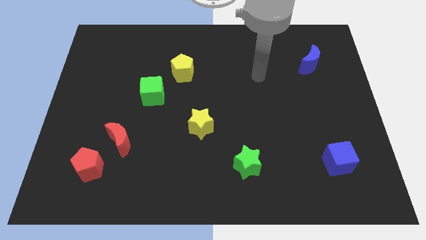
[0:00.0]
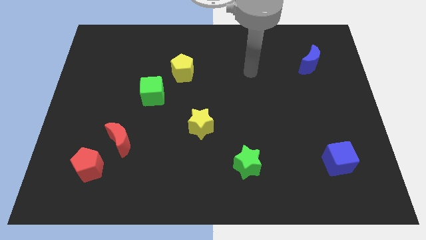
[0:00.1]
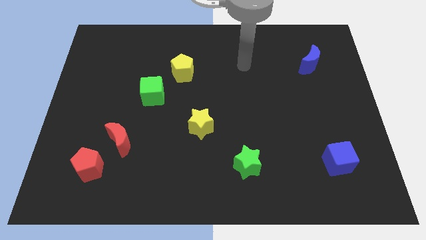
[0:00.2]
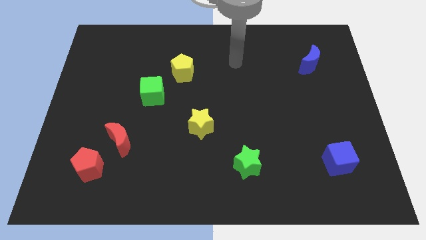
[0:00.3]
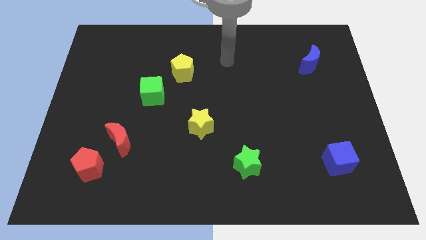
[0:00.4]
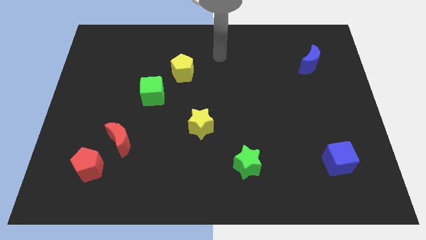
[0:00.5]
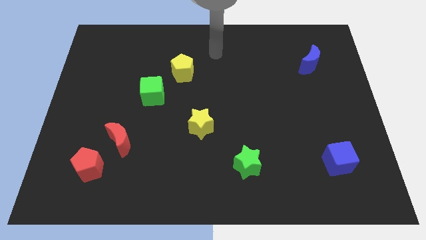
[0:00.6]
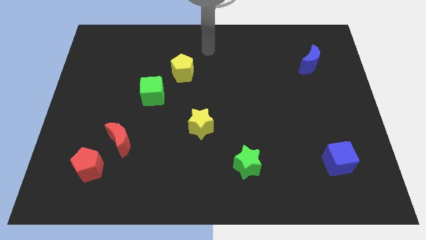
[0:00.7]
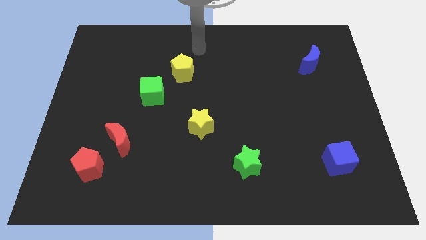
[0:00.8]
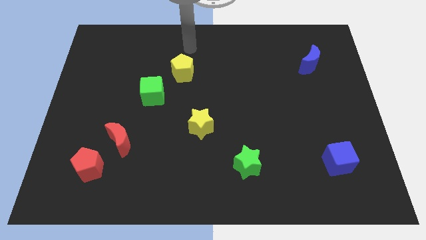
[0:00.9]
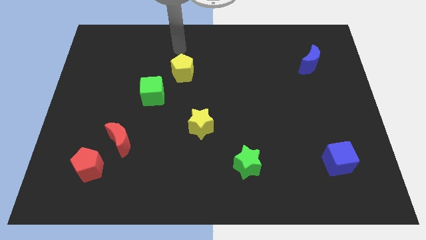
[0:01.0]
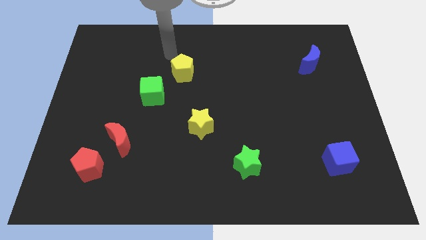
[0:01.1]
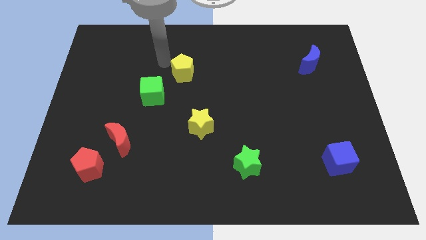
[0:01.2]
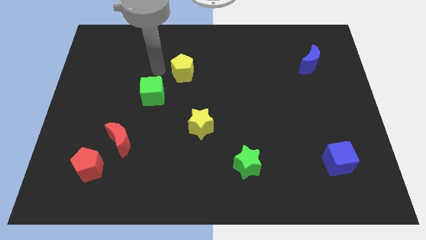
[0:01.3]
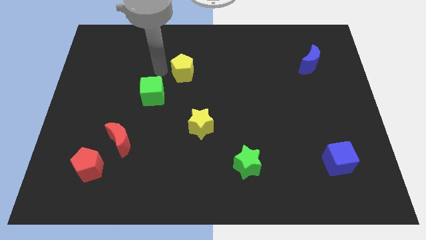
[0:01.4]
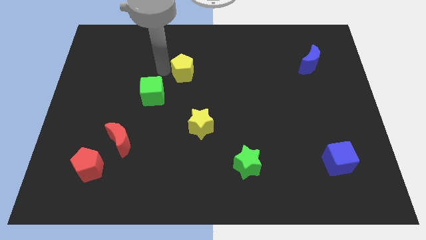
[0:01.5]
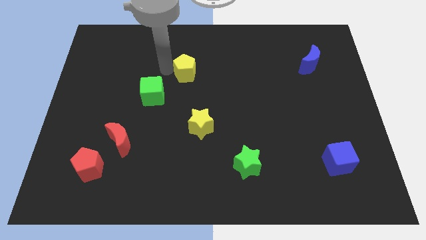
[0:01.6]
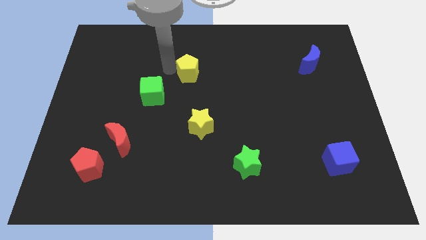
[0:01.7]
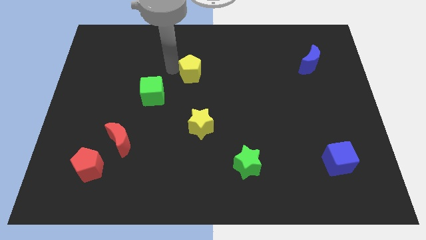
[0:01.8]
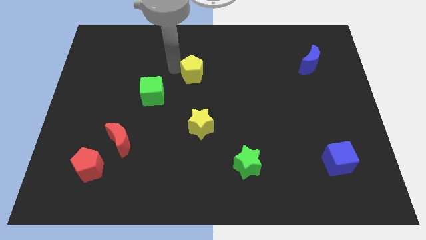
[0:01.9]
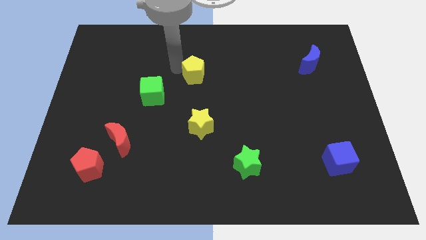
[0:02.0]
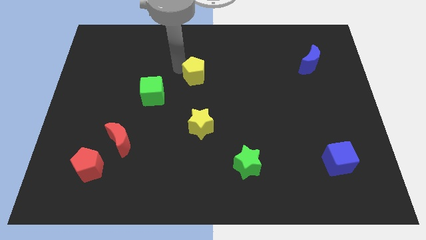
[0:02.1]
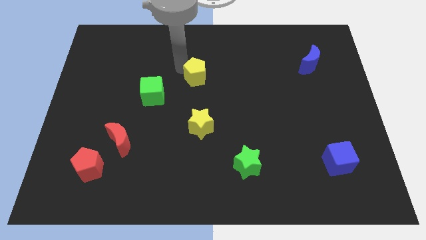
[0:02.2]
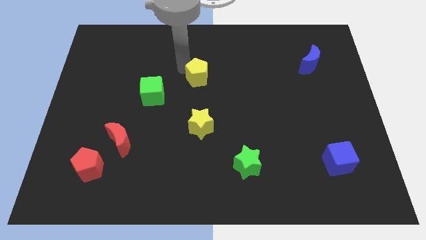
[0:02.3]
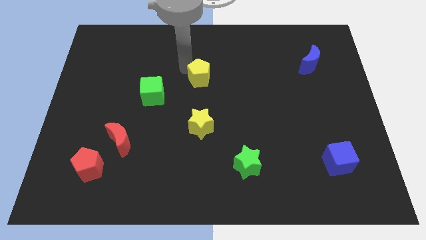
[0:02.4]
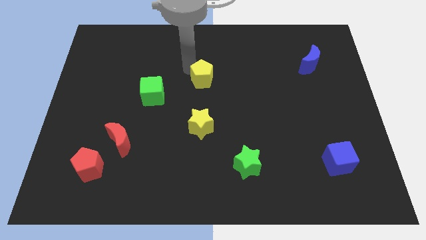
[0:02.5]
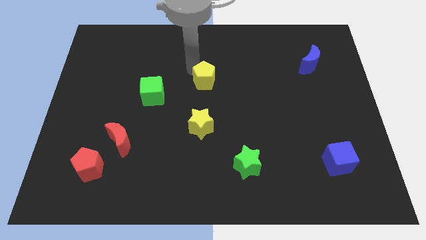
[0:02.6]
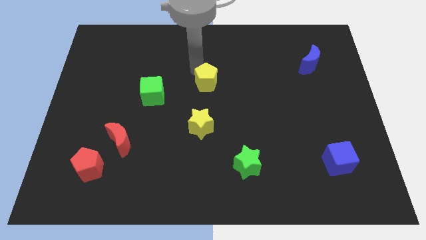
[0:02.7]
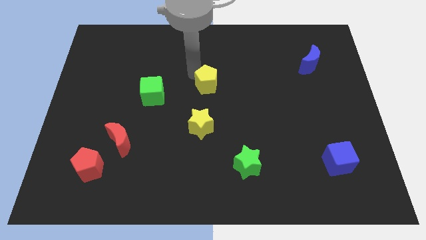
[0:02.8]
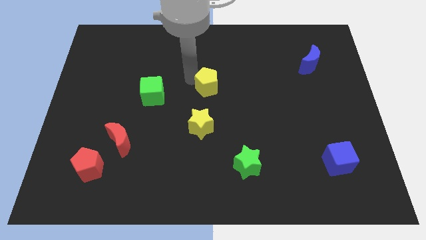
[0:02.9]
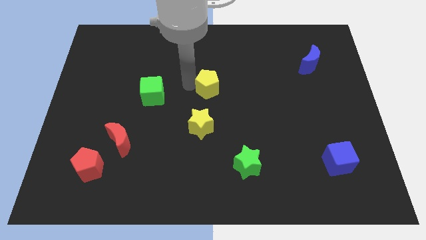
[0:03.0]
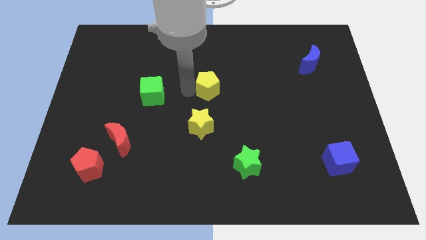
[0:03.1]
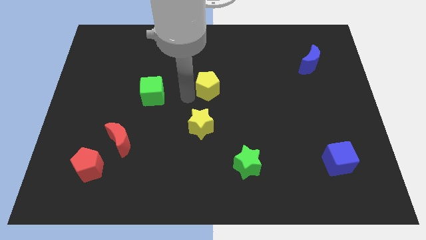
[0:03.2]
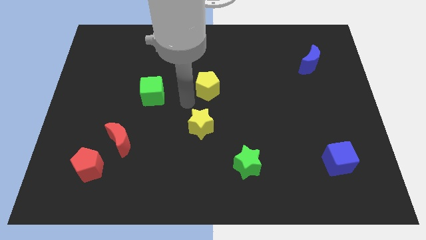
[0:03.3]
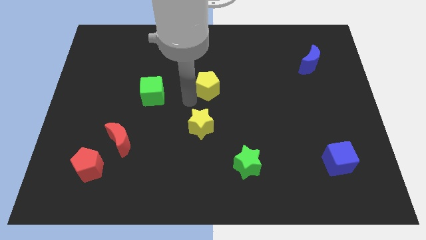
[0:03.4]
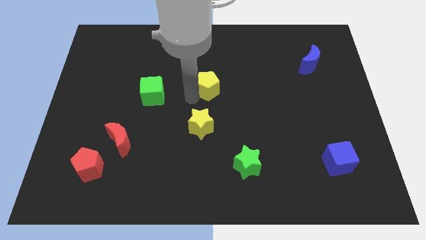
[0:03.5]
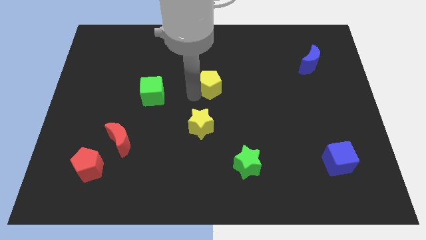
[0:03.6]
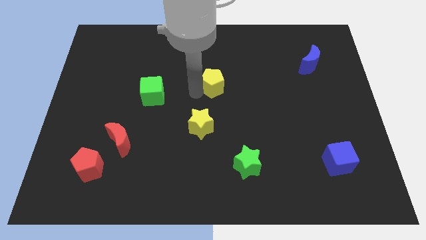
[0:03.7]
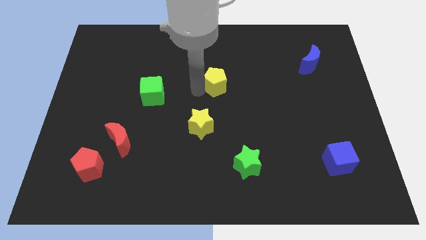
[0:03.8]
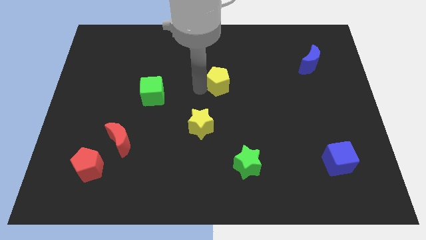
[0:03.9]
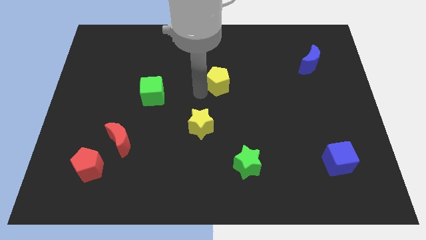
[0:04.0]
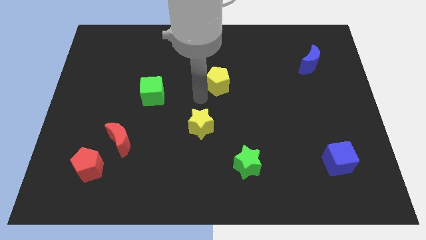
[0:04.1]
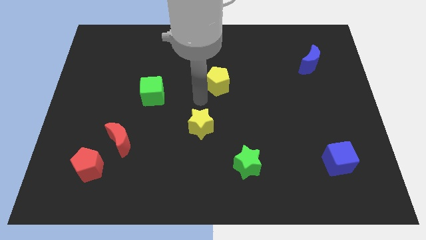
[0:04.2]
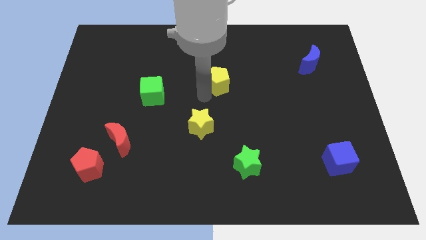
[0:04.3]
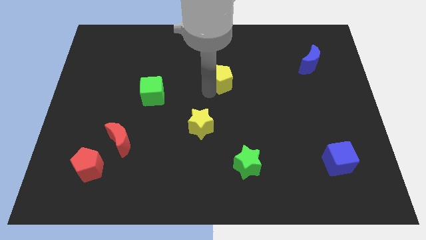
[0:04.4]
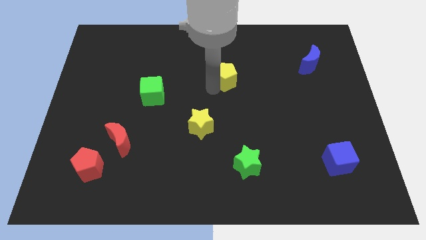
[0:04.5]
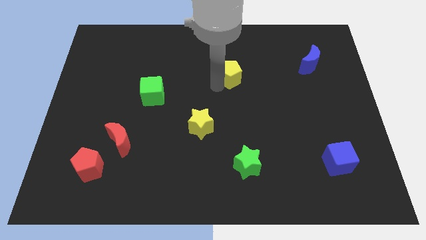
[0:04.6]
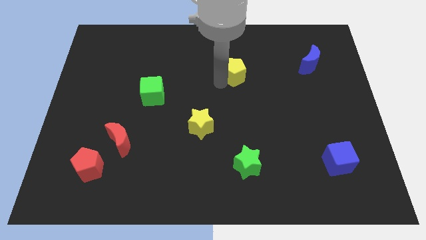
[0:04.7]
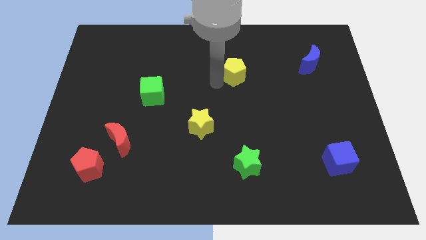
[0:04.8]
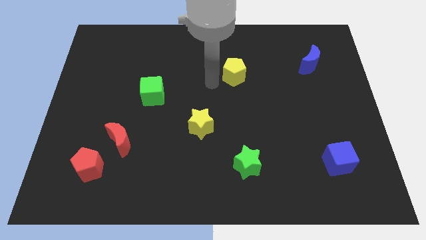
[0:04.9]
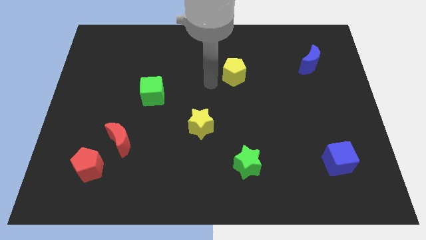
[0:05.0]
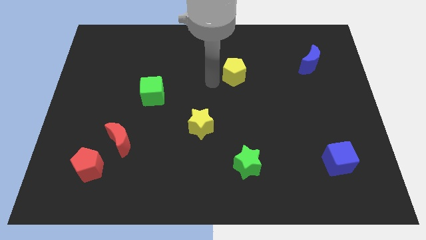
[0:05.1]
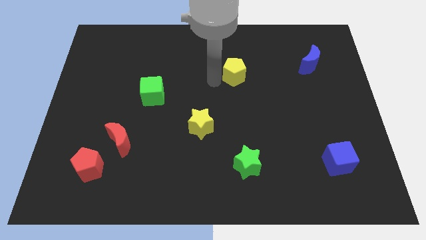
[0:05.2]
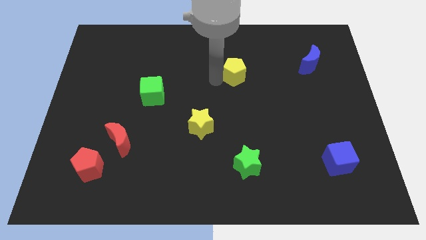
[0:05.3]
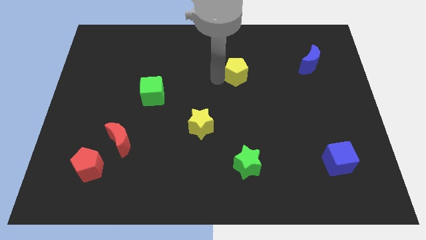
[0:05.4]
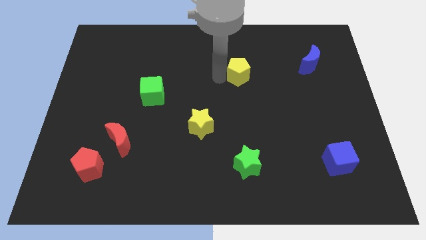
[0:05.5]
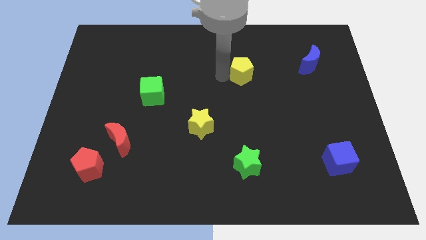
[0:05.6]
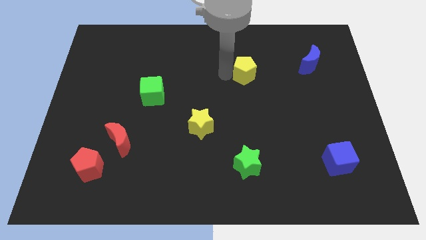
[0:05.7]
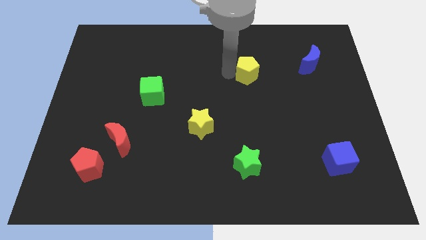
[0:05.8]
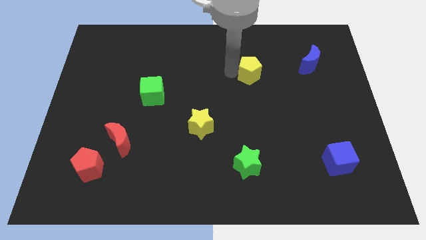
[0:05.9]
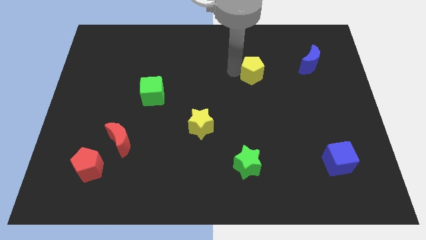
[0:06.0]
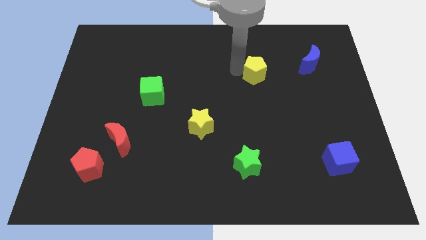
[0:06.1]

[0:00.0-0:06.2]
slide the yellow pentagon to the left of the blue moon

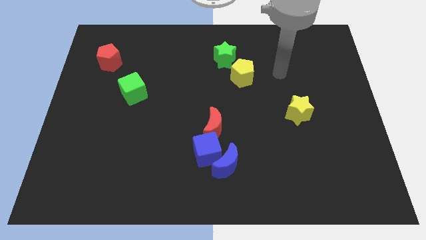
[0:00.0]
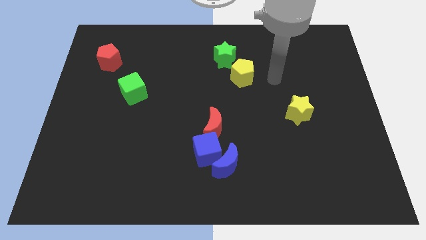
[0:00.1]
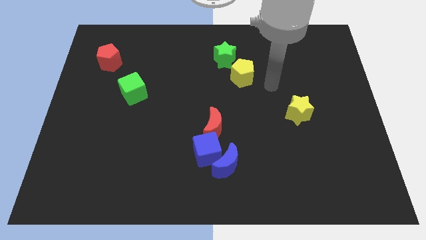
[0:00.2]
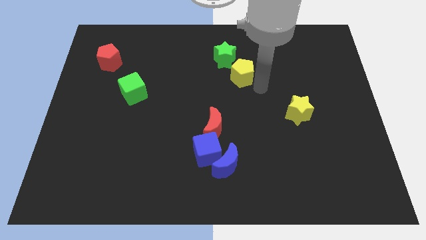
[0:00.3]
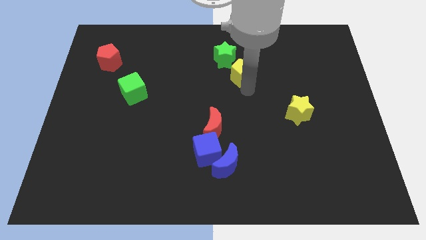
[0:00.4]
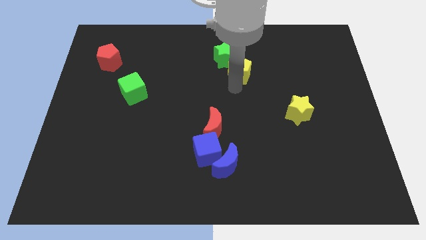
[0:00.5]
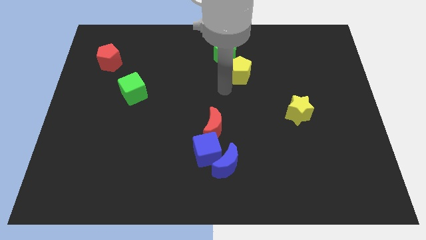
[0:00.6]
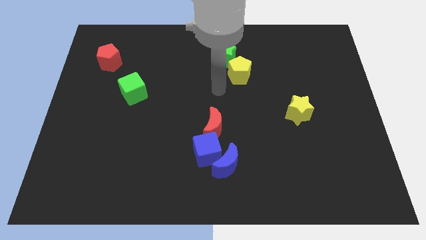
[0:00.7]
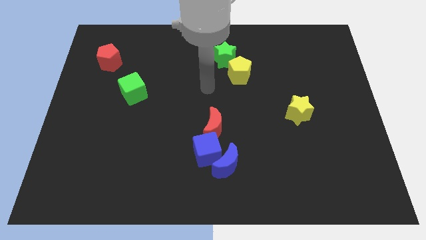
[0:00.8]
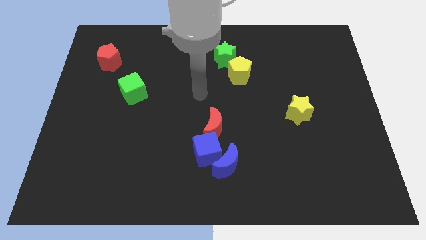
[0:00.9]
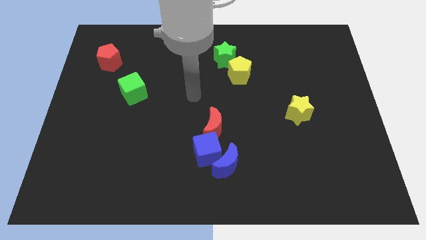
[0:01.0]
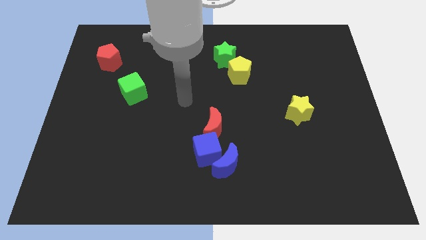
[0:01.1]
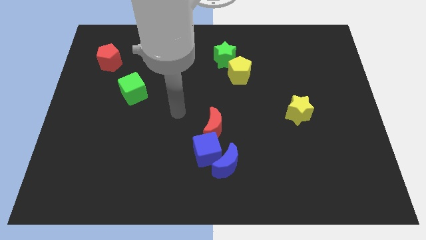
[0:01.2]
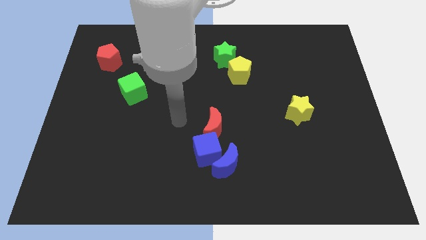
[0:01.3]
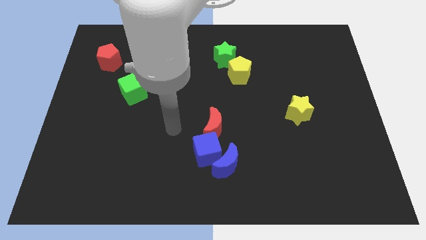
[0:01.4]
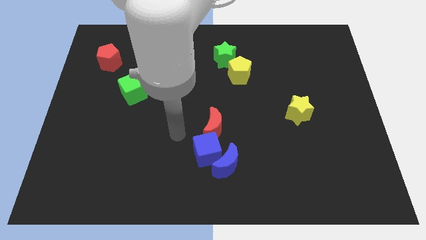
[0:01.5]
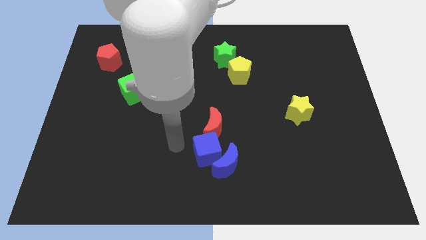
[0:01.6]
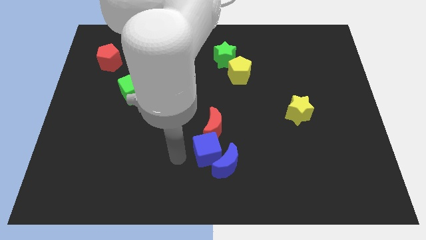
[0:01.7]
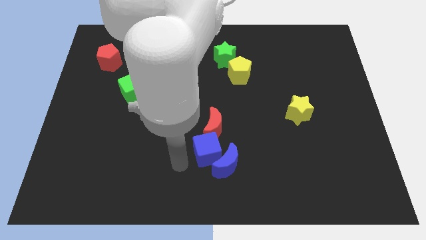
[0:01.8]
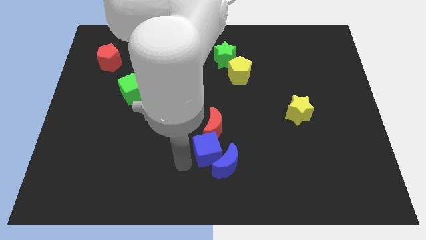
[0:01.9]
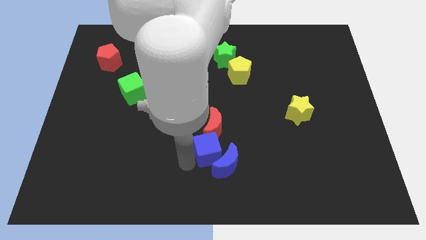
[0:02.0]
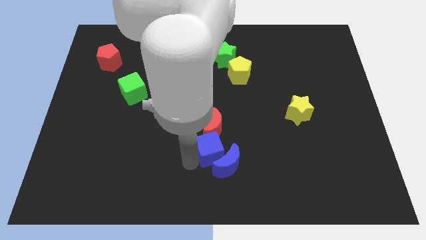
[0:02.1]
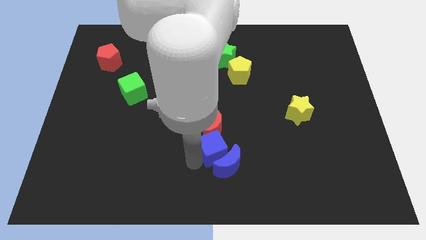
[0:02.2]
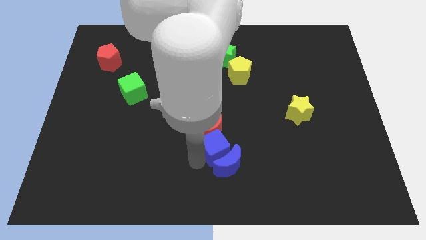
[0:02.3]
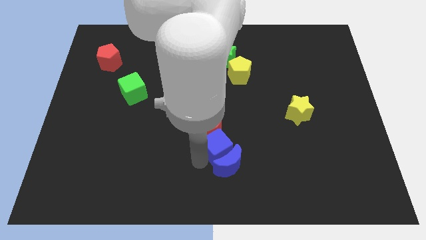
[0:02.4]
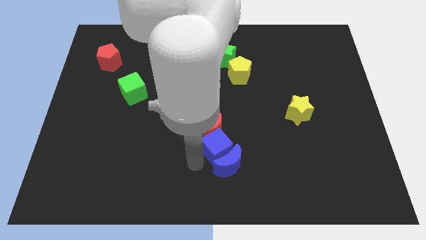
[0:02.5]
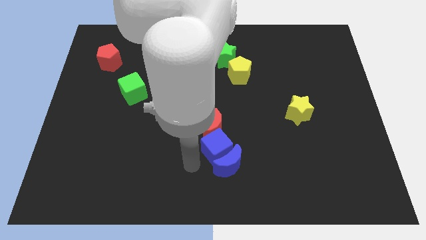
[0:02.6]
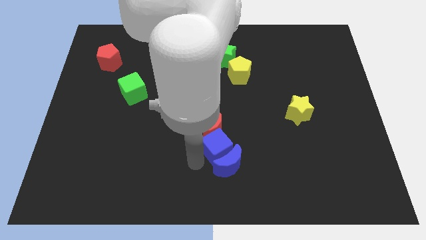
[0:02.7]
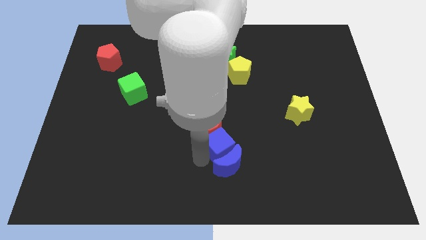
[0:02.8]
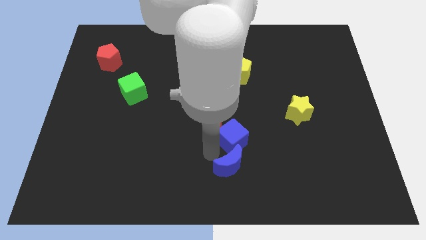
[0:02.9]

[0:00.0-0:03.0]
move the blue cube to the right of the red moon
